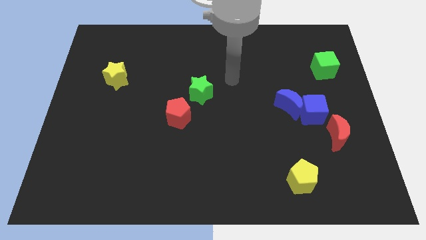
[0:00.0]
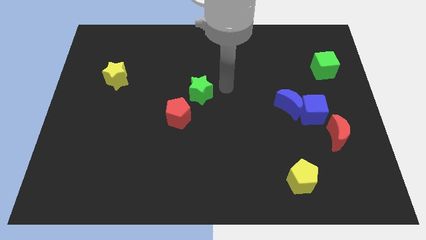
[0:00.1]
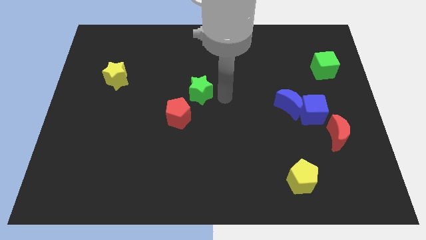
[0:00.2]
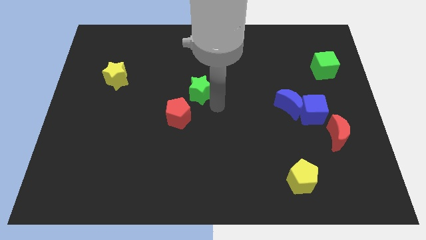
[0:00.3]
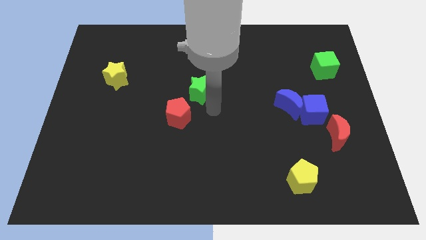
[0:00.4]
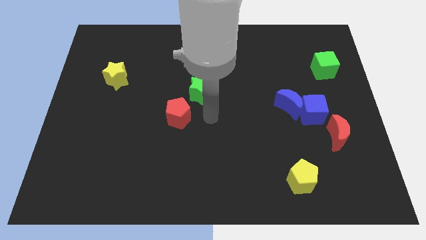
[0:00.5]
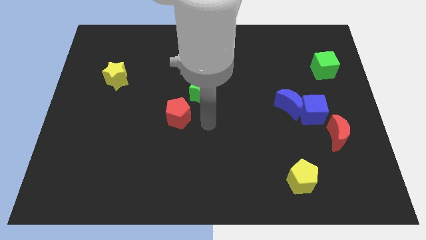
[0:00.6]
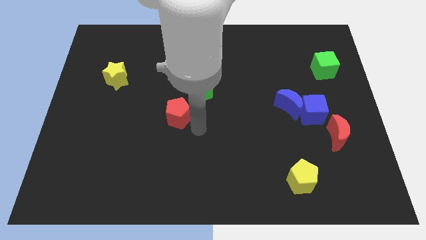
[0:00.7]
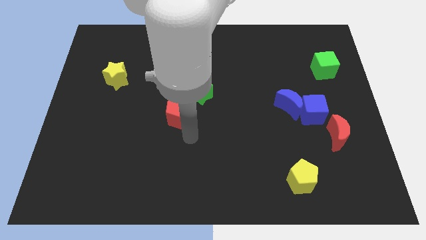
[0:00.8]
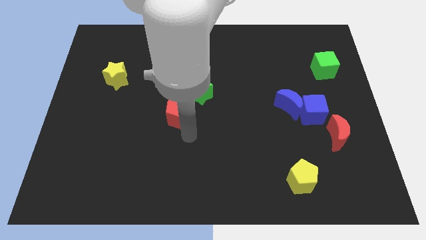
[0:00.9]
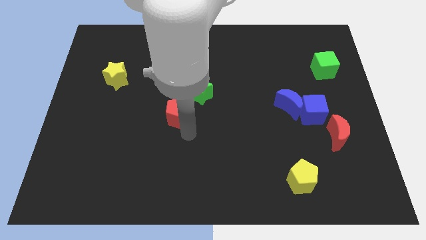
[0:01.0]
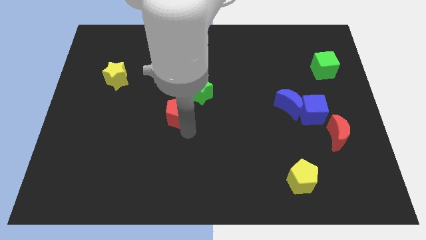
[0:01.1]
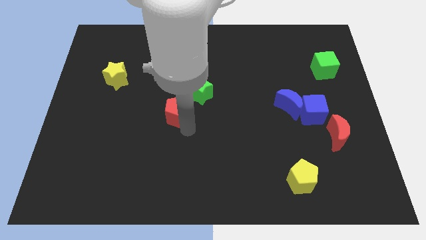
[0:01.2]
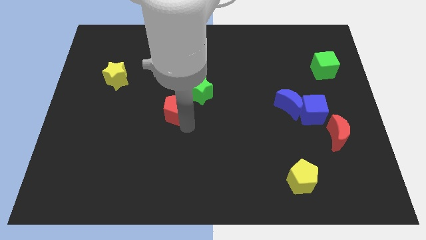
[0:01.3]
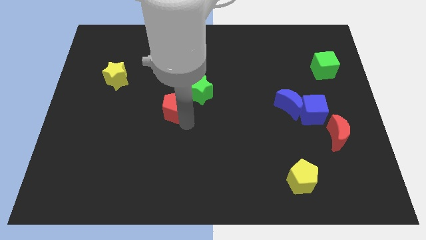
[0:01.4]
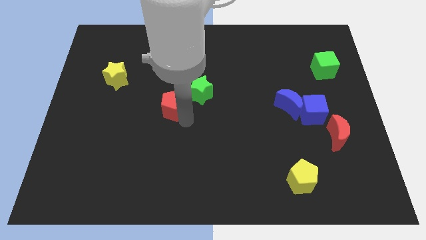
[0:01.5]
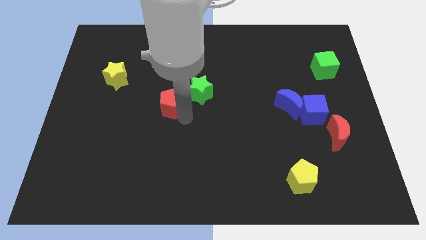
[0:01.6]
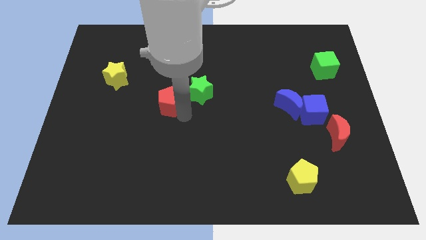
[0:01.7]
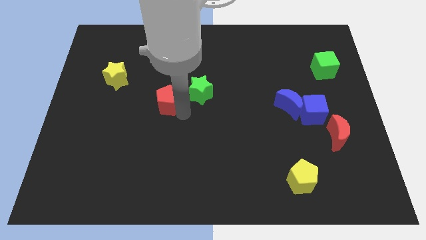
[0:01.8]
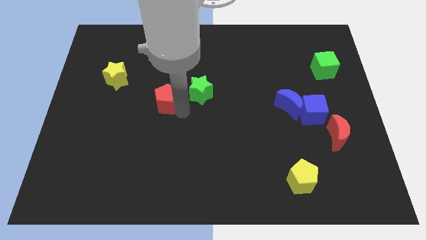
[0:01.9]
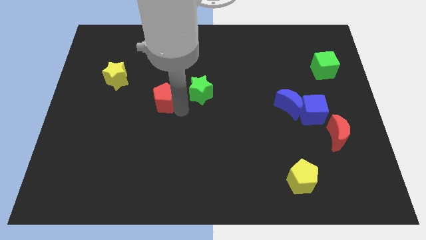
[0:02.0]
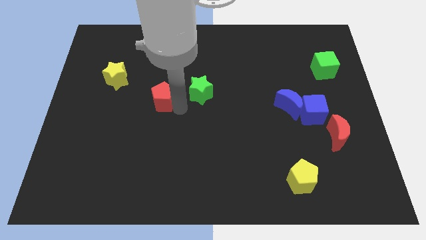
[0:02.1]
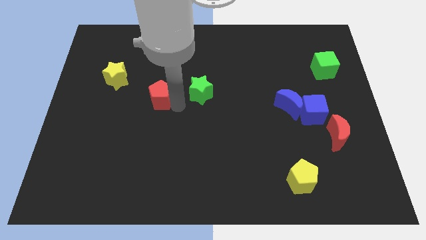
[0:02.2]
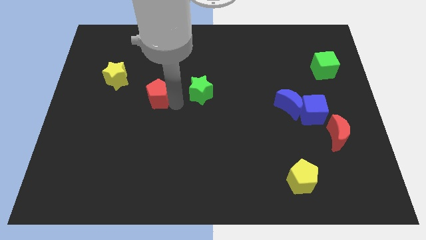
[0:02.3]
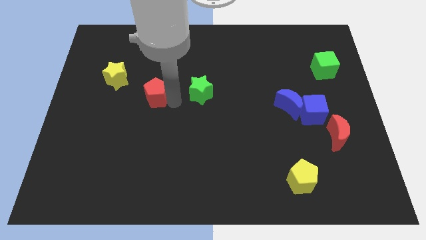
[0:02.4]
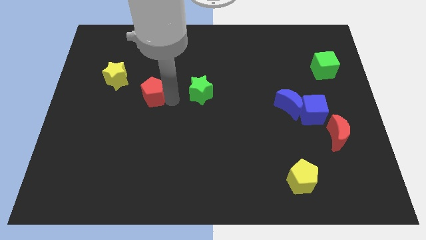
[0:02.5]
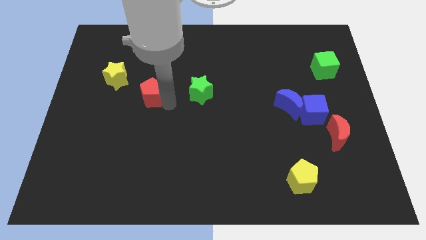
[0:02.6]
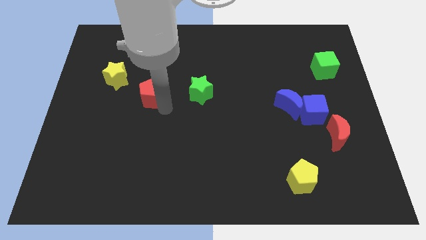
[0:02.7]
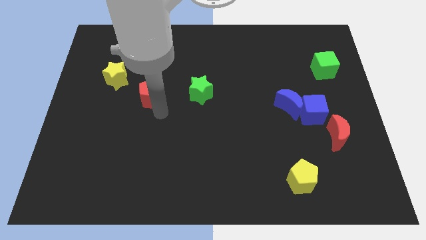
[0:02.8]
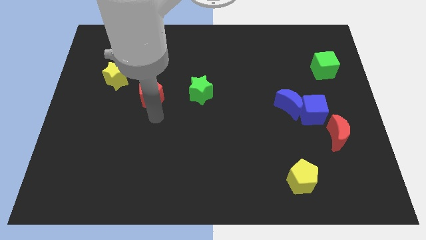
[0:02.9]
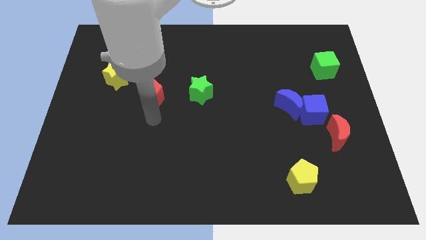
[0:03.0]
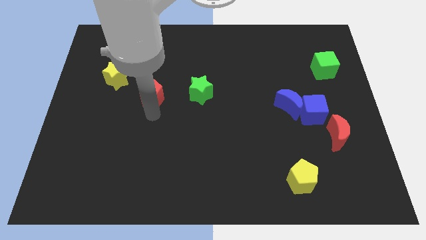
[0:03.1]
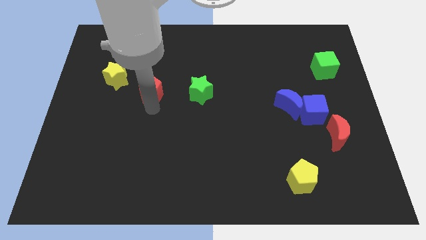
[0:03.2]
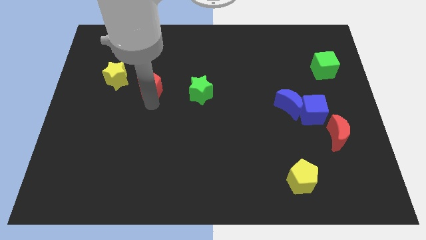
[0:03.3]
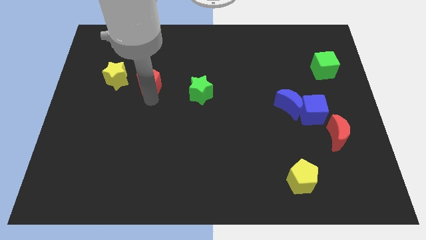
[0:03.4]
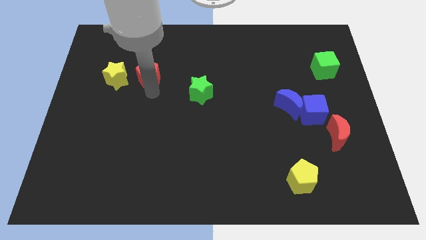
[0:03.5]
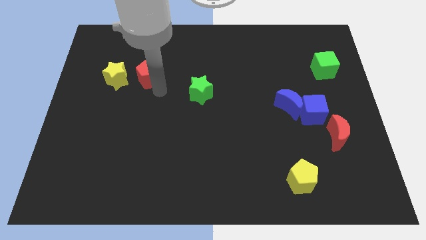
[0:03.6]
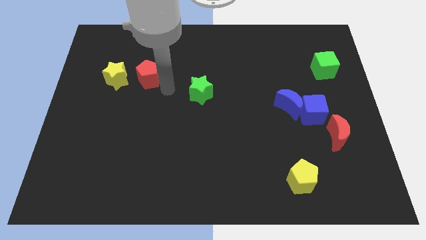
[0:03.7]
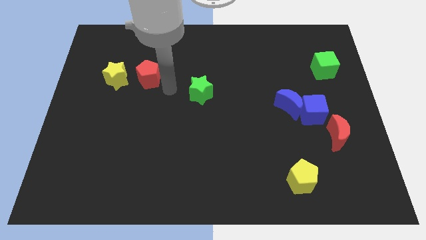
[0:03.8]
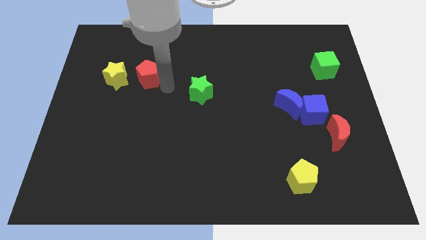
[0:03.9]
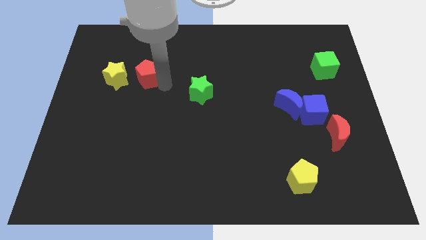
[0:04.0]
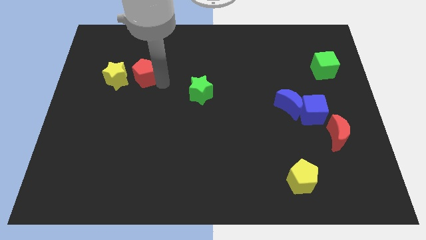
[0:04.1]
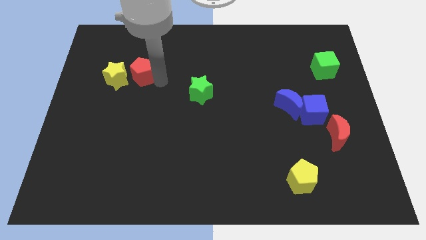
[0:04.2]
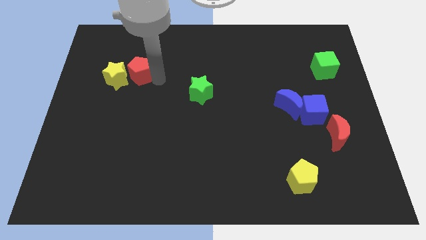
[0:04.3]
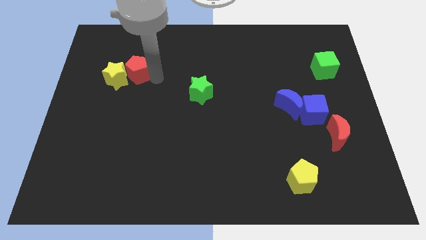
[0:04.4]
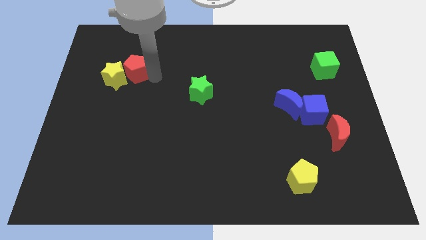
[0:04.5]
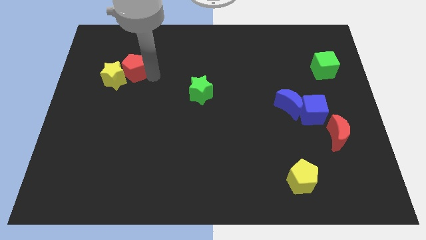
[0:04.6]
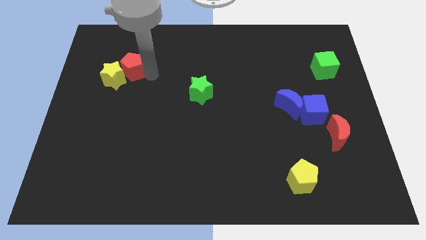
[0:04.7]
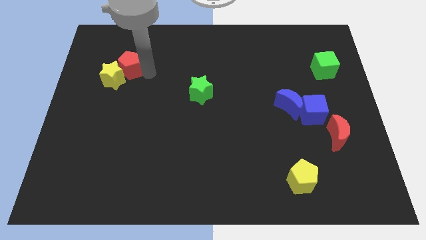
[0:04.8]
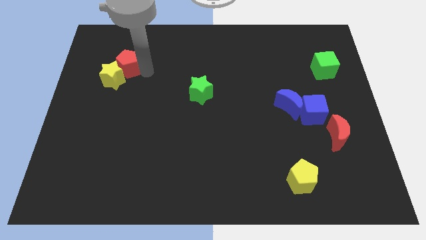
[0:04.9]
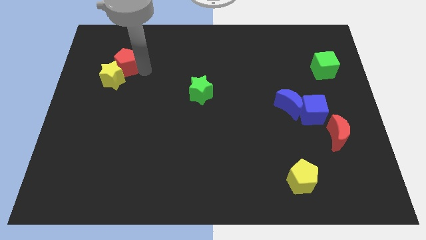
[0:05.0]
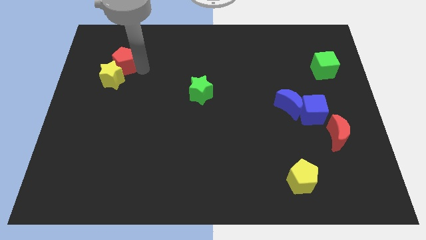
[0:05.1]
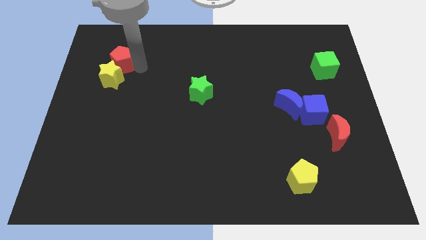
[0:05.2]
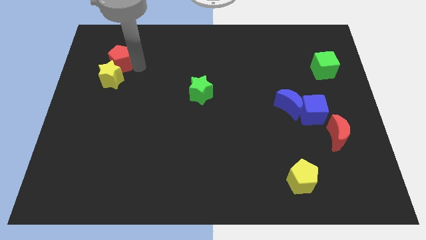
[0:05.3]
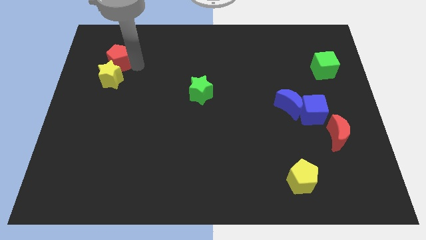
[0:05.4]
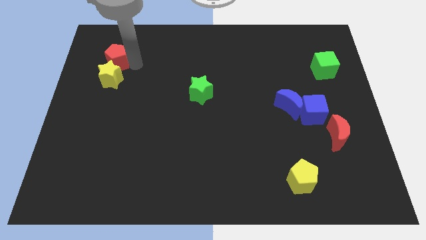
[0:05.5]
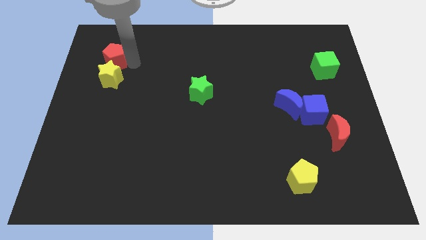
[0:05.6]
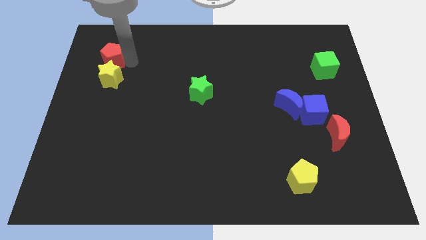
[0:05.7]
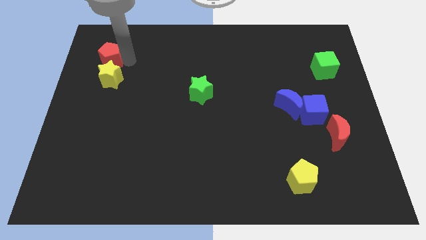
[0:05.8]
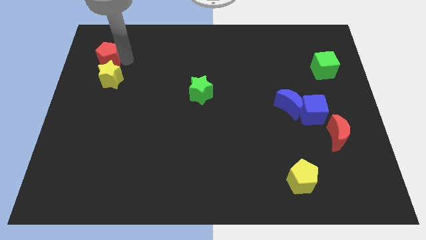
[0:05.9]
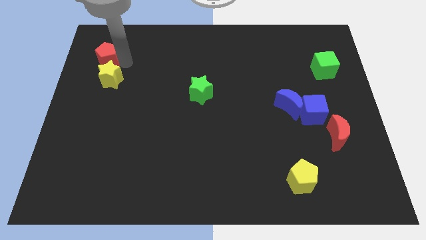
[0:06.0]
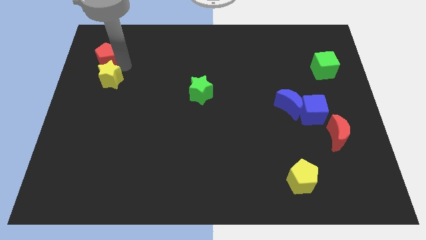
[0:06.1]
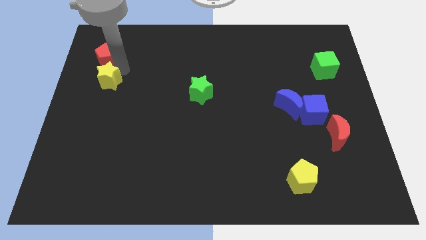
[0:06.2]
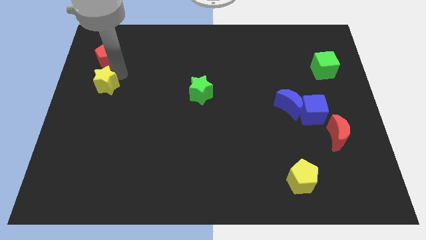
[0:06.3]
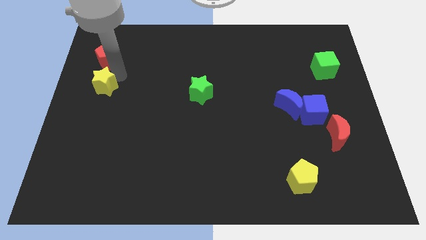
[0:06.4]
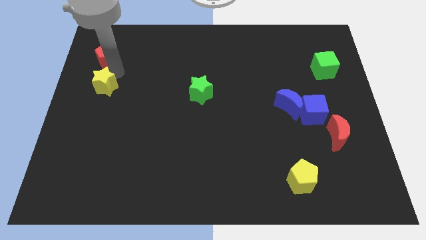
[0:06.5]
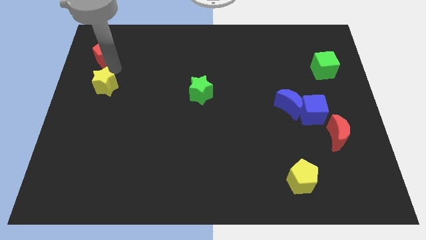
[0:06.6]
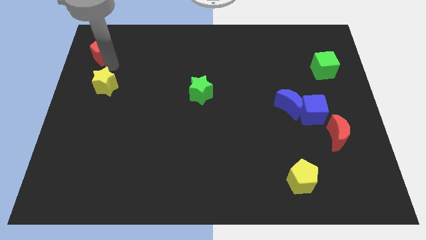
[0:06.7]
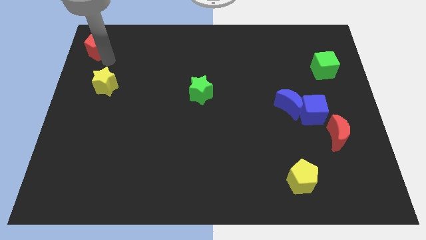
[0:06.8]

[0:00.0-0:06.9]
put the red pentagon to the upper left corner
